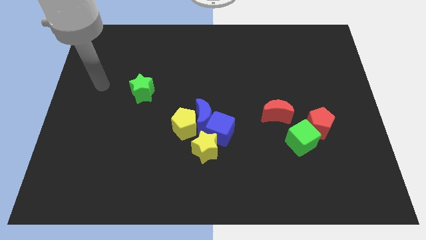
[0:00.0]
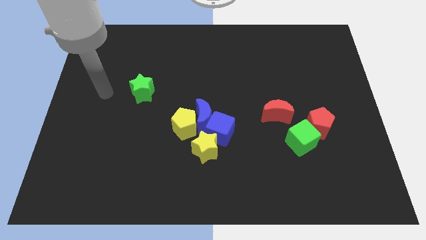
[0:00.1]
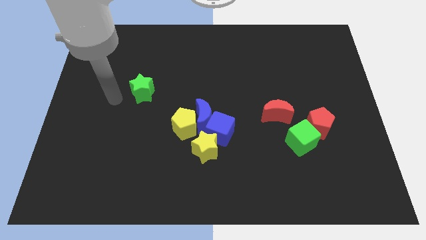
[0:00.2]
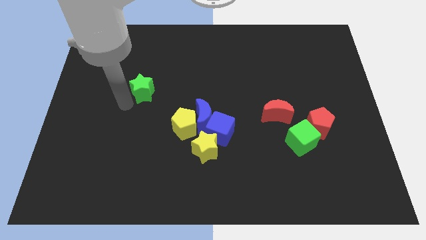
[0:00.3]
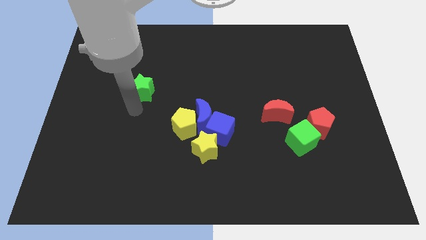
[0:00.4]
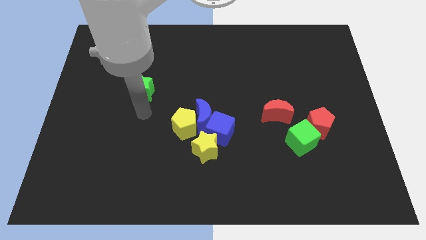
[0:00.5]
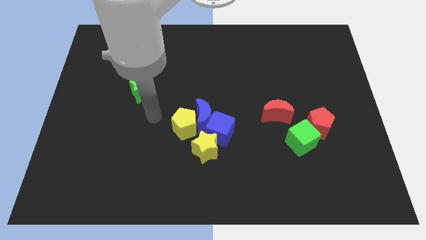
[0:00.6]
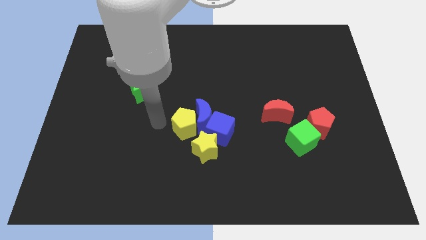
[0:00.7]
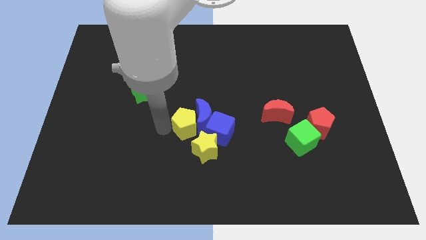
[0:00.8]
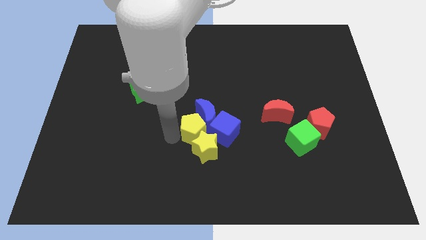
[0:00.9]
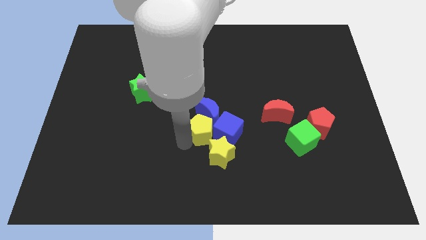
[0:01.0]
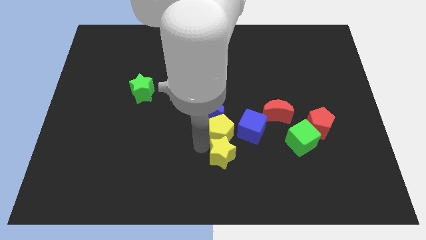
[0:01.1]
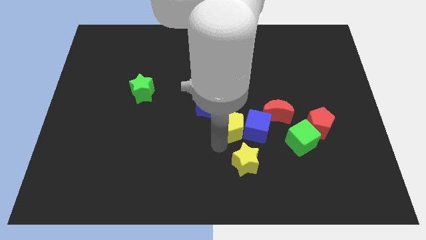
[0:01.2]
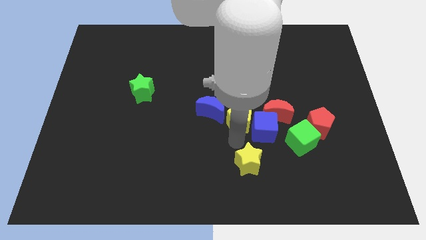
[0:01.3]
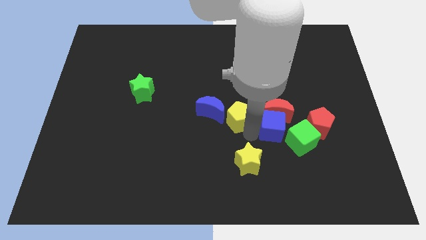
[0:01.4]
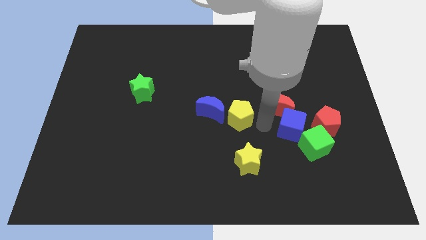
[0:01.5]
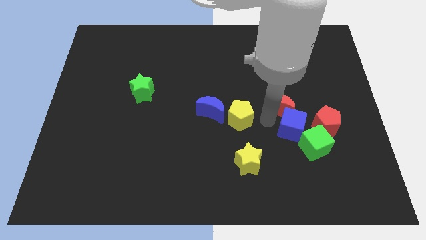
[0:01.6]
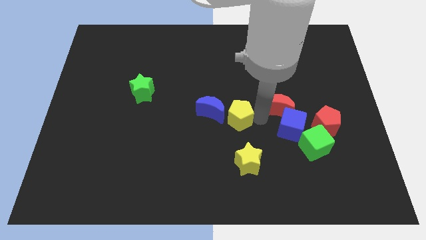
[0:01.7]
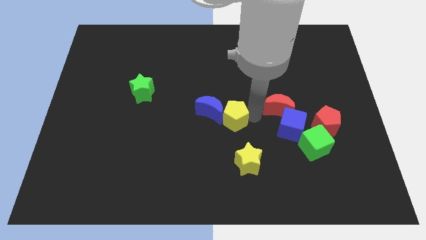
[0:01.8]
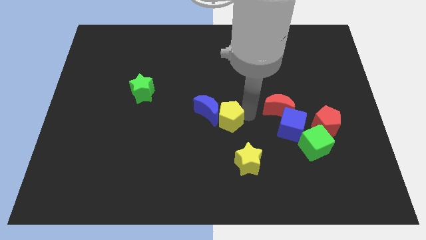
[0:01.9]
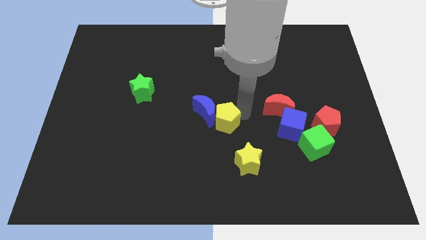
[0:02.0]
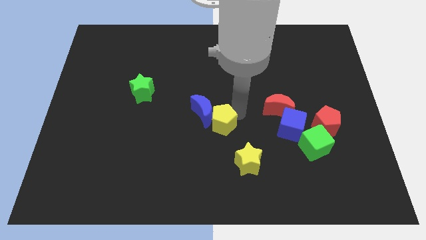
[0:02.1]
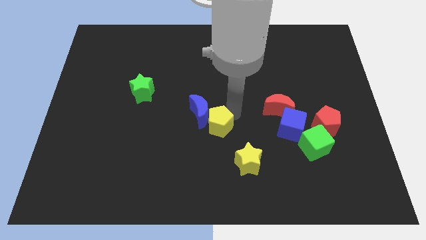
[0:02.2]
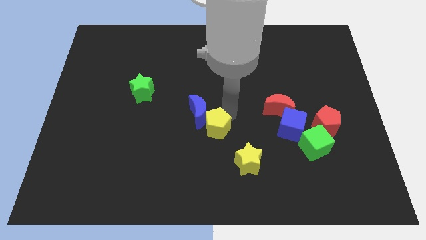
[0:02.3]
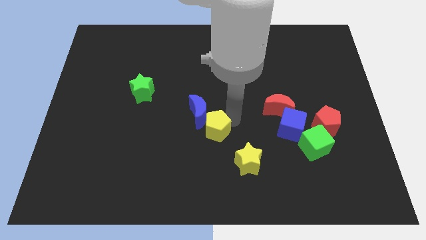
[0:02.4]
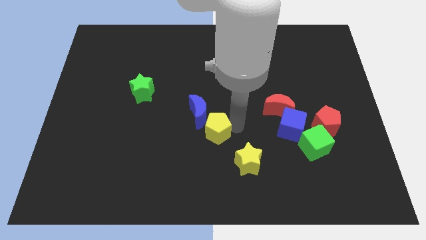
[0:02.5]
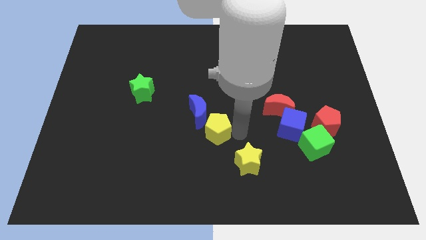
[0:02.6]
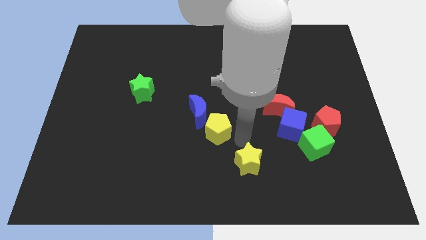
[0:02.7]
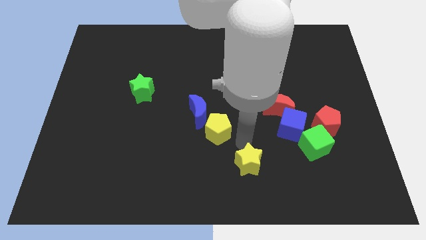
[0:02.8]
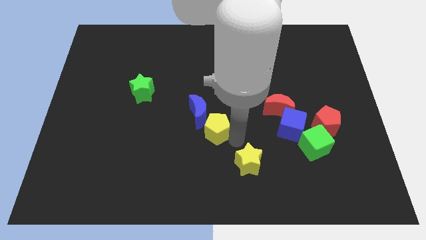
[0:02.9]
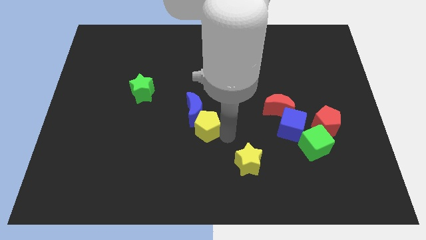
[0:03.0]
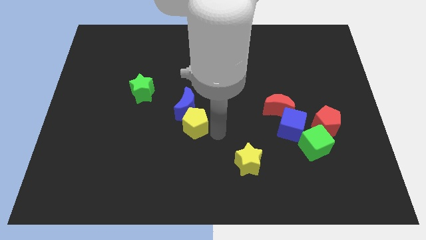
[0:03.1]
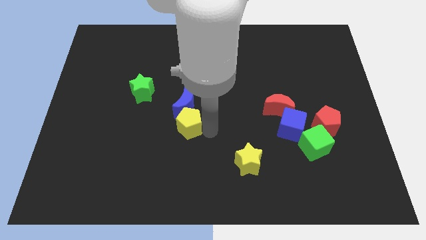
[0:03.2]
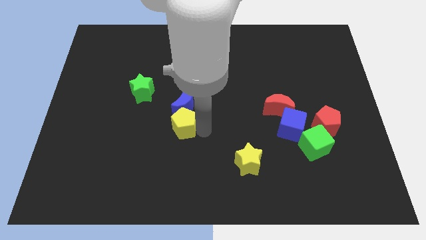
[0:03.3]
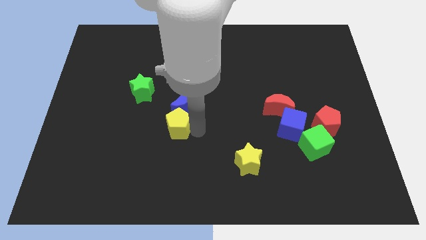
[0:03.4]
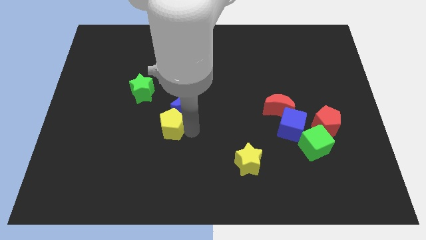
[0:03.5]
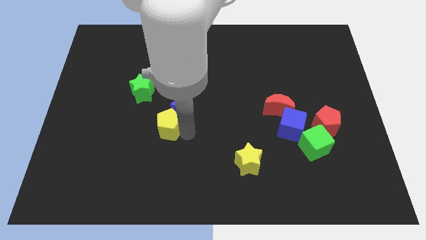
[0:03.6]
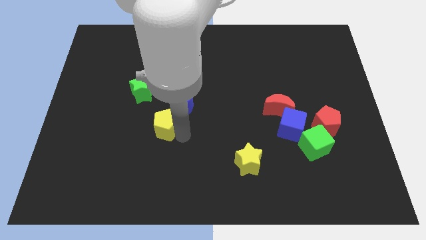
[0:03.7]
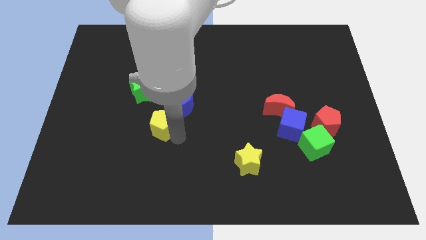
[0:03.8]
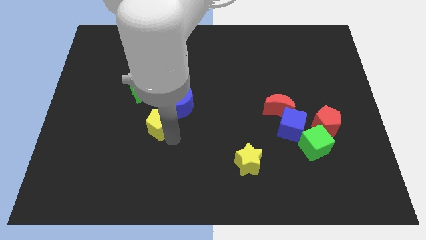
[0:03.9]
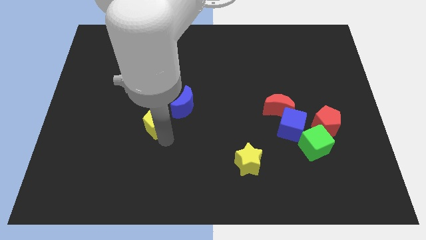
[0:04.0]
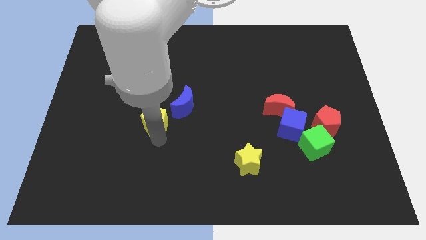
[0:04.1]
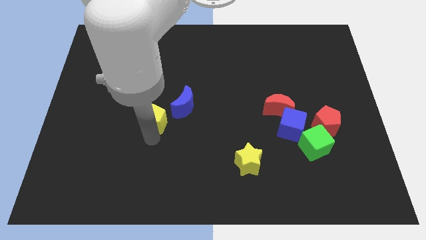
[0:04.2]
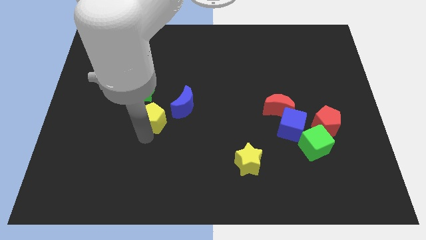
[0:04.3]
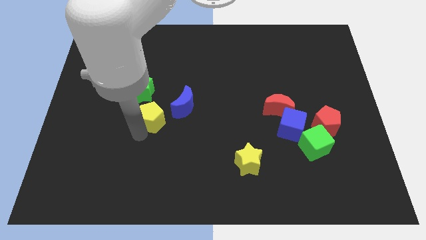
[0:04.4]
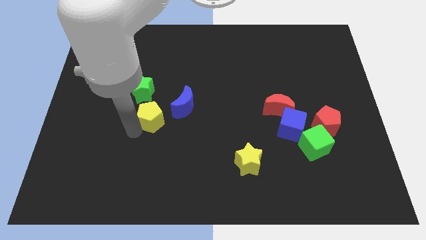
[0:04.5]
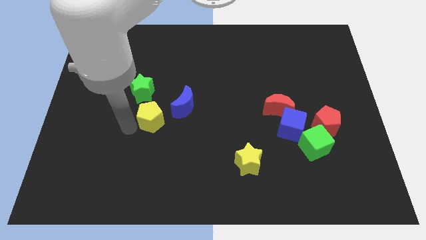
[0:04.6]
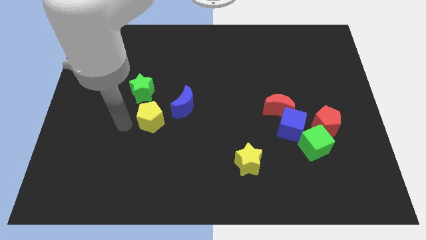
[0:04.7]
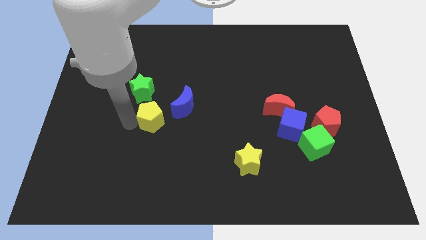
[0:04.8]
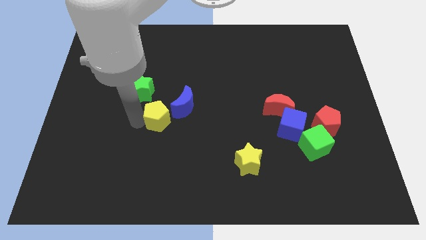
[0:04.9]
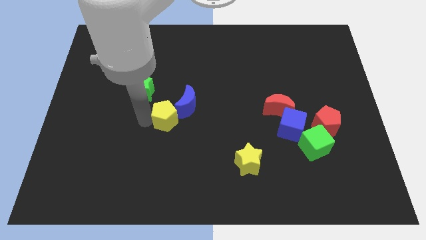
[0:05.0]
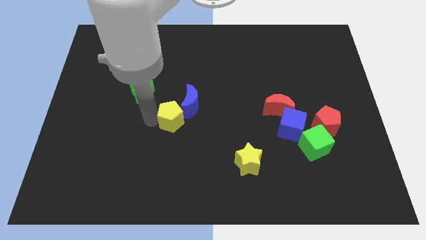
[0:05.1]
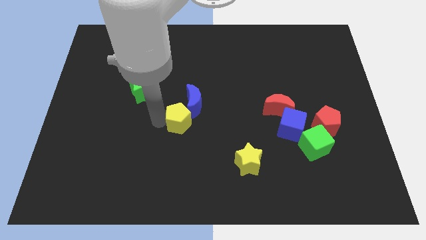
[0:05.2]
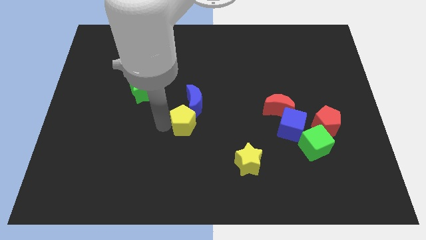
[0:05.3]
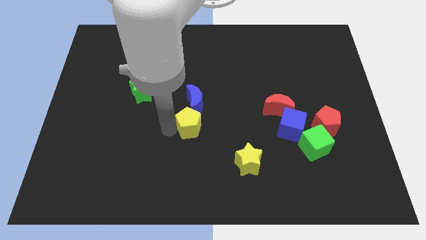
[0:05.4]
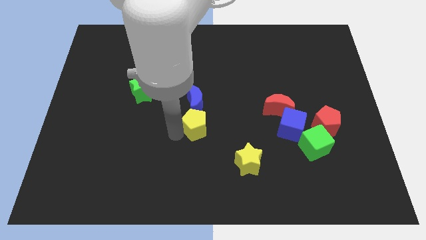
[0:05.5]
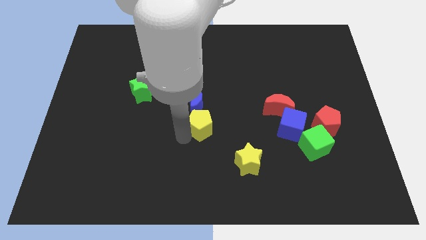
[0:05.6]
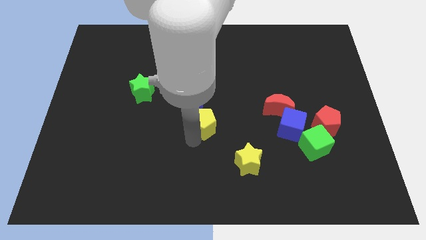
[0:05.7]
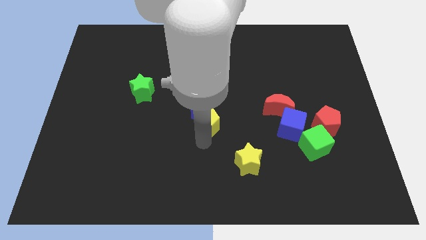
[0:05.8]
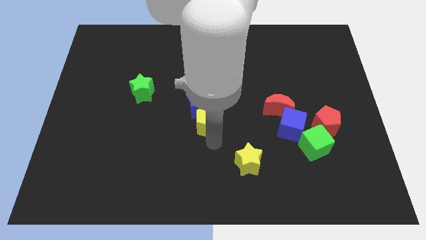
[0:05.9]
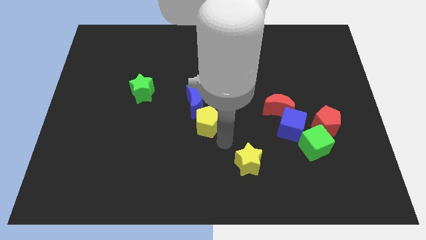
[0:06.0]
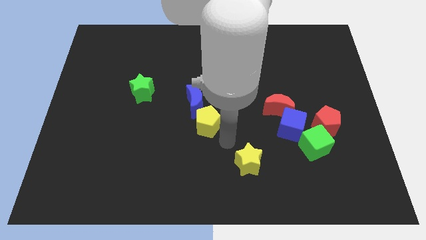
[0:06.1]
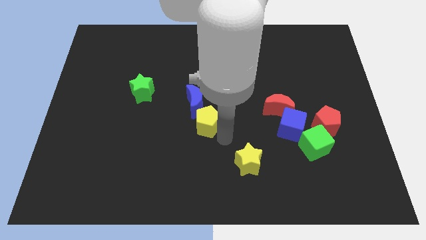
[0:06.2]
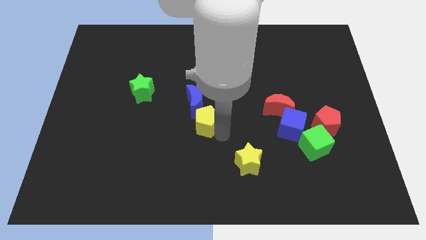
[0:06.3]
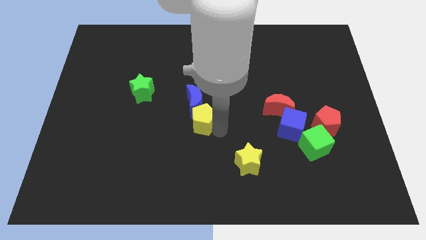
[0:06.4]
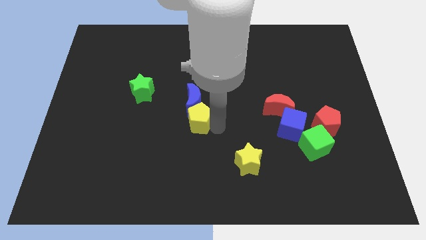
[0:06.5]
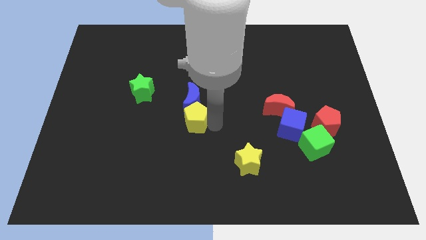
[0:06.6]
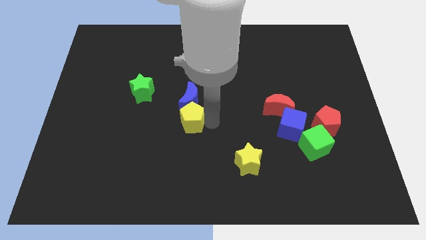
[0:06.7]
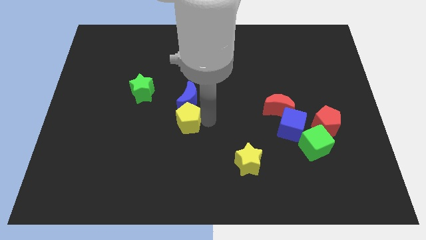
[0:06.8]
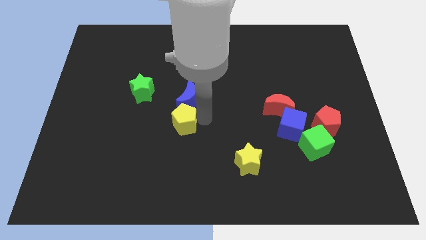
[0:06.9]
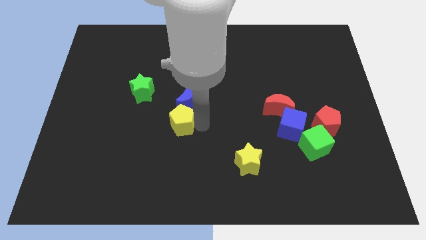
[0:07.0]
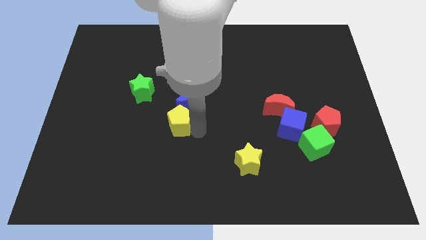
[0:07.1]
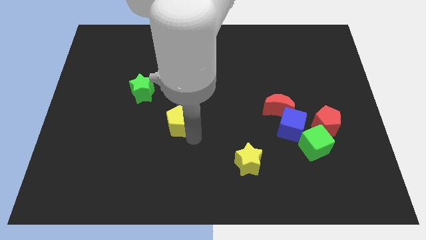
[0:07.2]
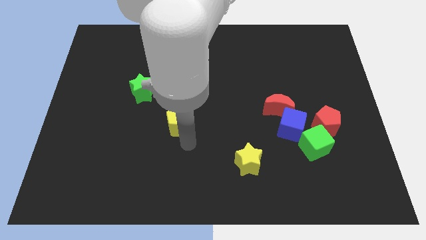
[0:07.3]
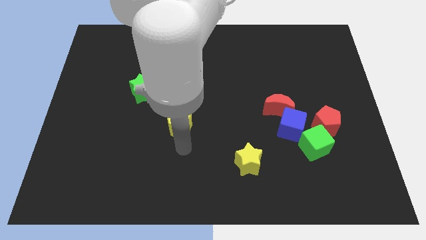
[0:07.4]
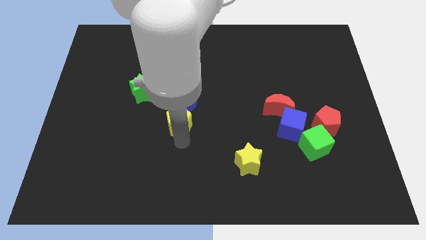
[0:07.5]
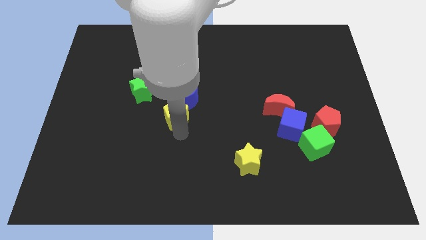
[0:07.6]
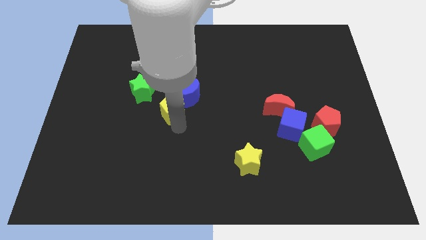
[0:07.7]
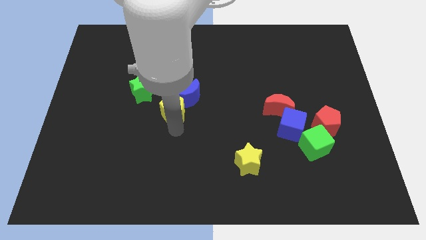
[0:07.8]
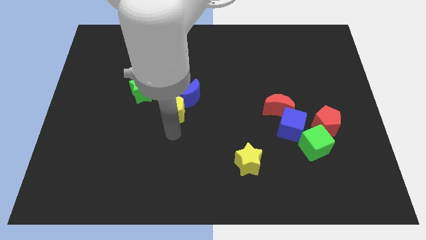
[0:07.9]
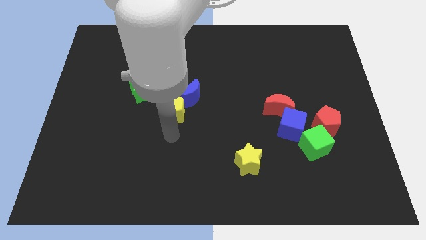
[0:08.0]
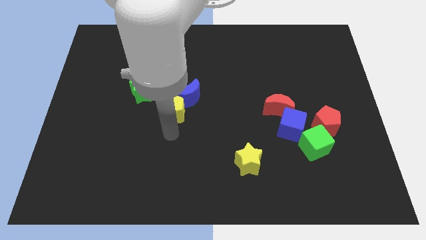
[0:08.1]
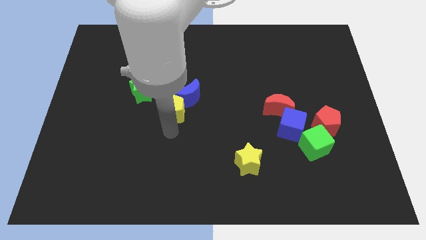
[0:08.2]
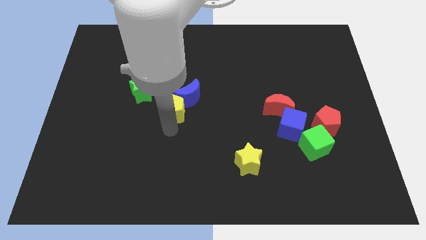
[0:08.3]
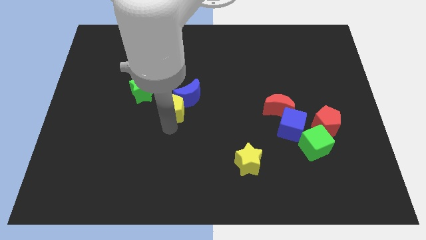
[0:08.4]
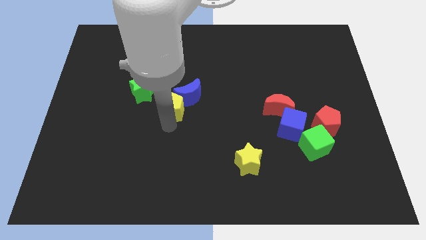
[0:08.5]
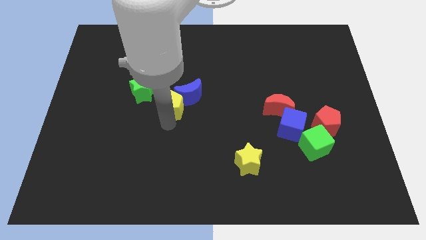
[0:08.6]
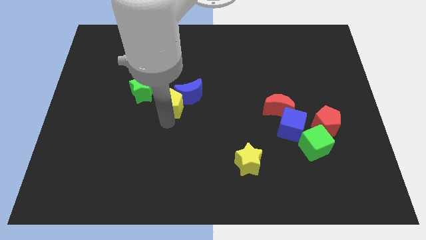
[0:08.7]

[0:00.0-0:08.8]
slightly slide the yellow pentagon diagonally up and left
